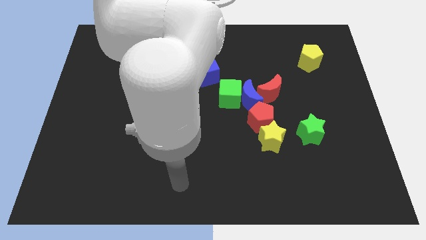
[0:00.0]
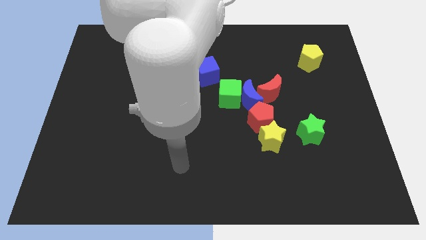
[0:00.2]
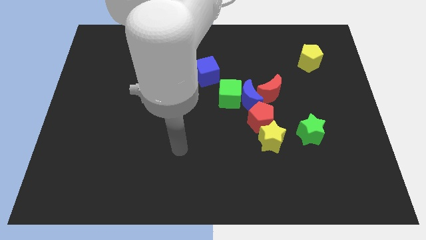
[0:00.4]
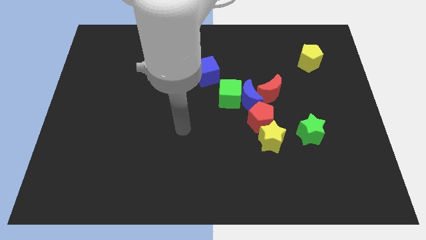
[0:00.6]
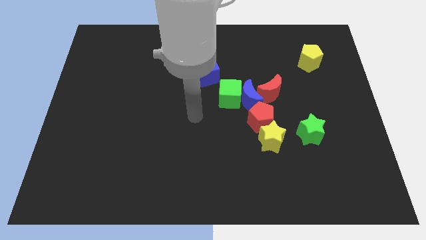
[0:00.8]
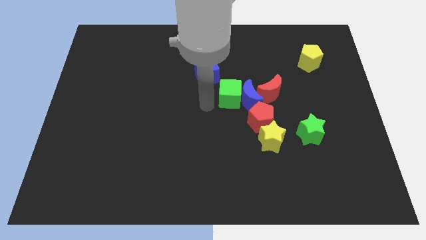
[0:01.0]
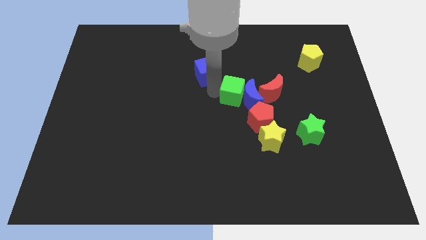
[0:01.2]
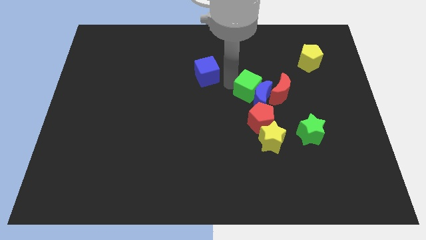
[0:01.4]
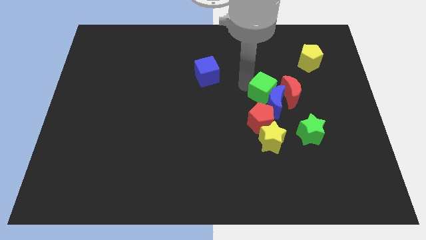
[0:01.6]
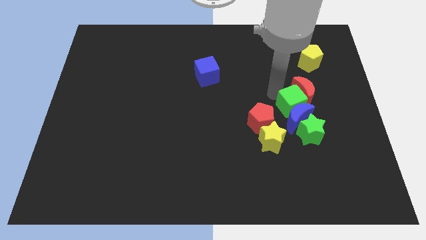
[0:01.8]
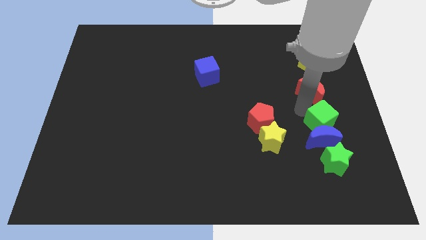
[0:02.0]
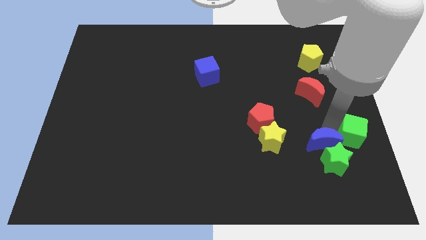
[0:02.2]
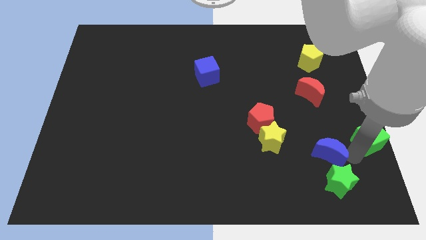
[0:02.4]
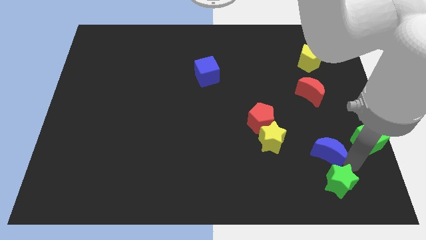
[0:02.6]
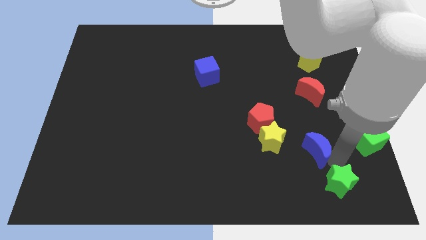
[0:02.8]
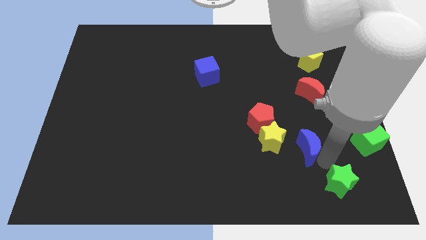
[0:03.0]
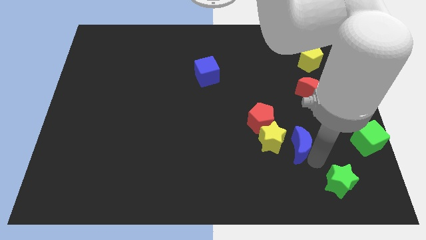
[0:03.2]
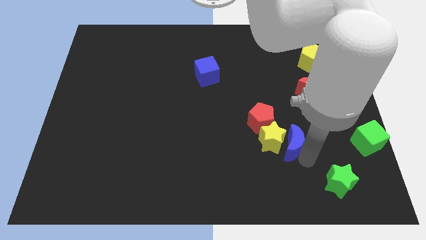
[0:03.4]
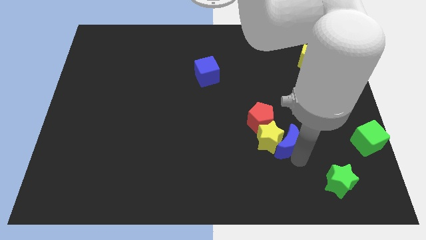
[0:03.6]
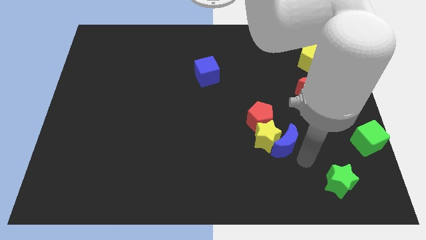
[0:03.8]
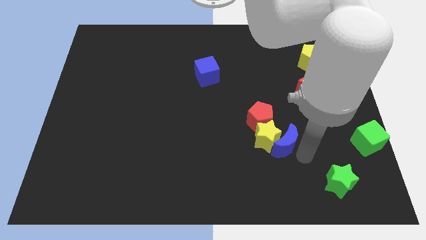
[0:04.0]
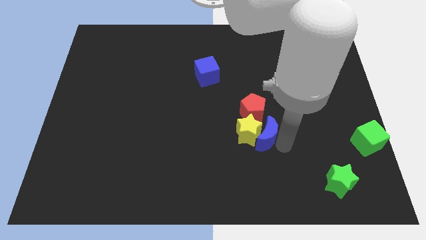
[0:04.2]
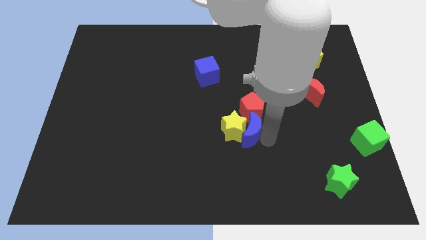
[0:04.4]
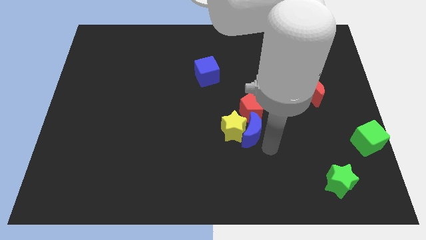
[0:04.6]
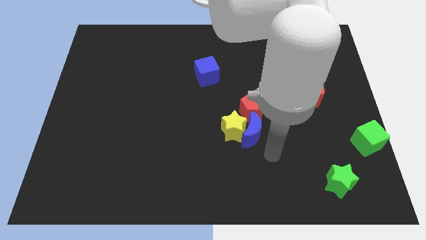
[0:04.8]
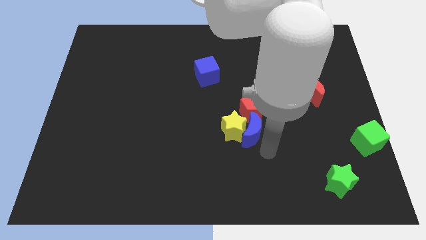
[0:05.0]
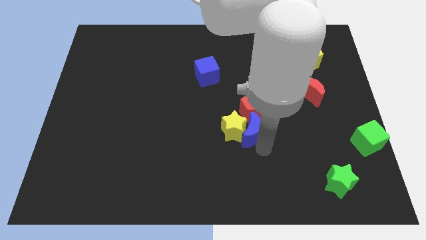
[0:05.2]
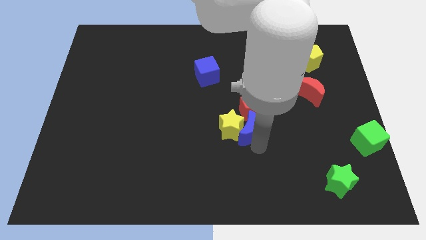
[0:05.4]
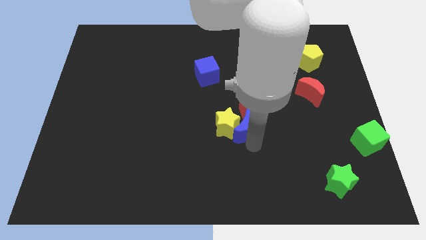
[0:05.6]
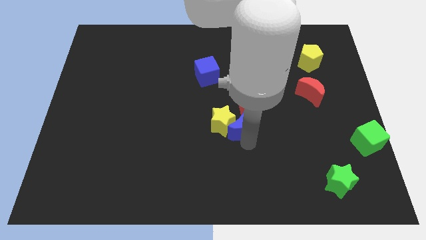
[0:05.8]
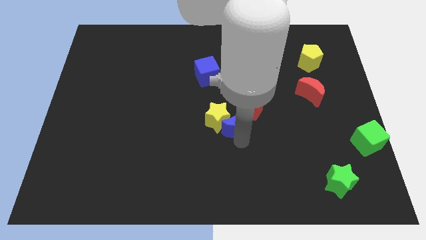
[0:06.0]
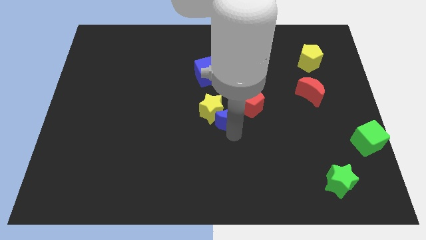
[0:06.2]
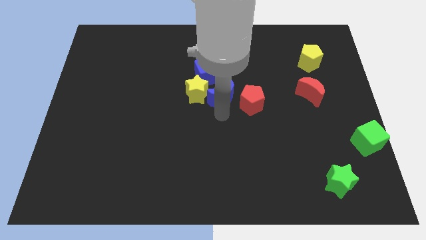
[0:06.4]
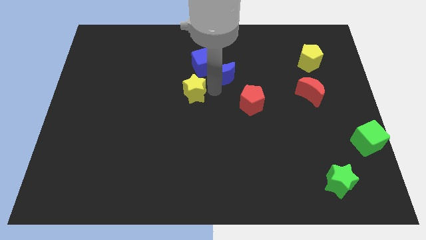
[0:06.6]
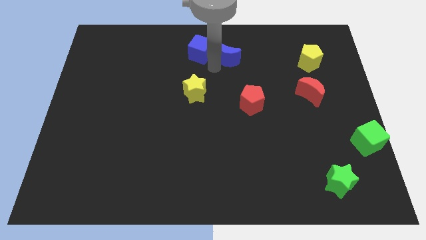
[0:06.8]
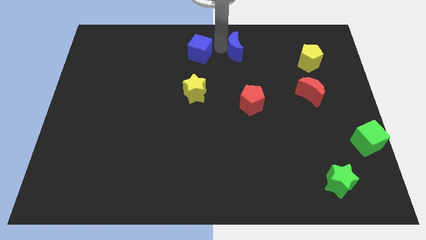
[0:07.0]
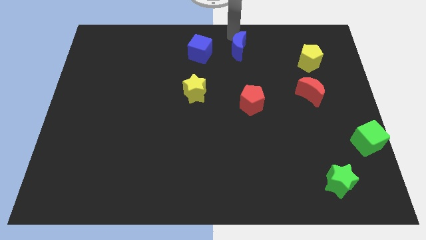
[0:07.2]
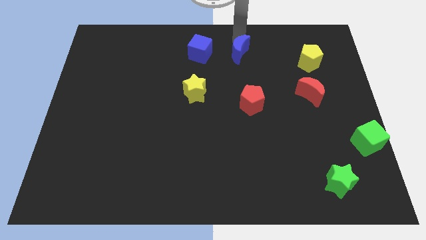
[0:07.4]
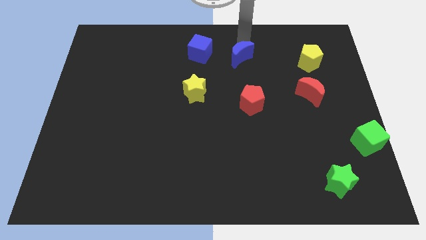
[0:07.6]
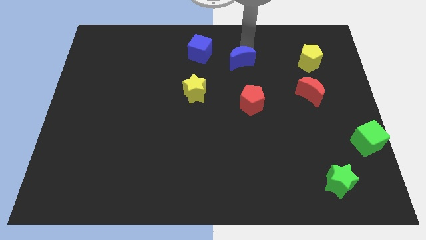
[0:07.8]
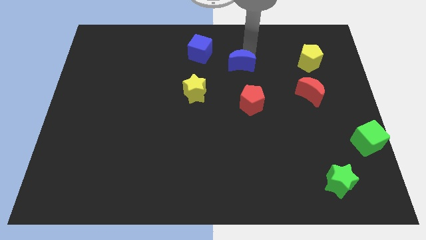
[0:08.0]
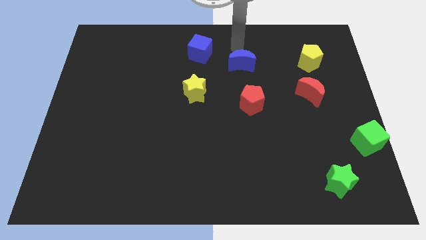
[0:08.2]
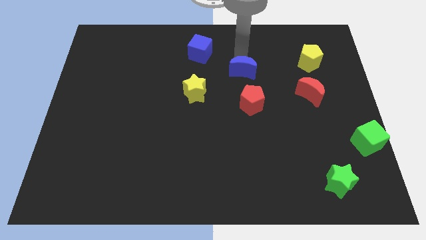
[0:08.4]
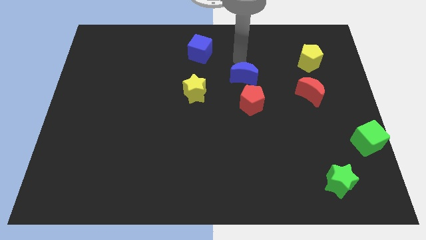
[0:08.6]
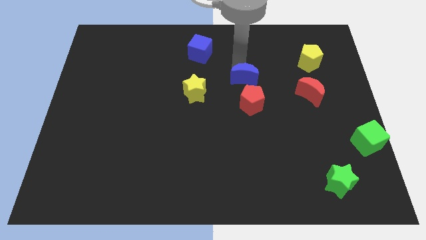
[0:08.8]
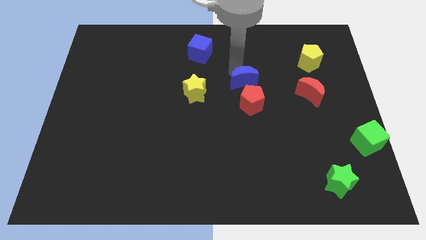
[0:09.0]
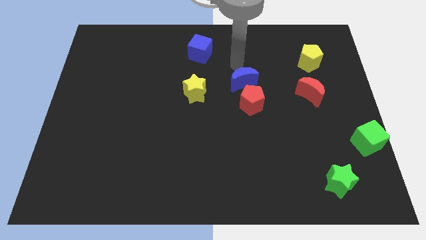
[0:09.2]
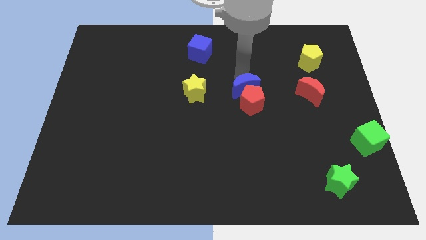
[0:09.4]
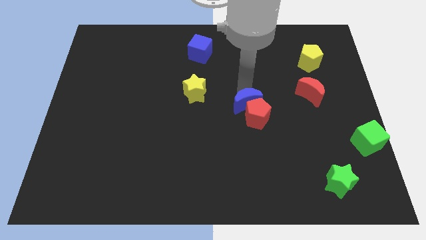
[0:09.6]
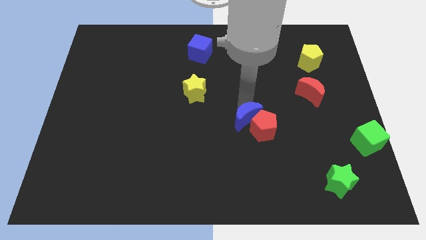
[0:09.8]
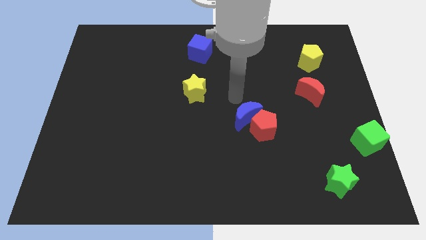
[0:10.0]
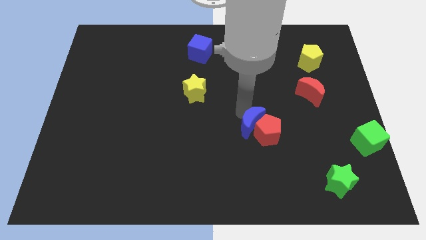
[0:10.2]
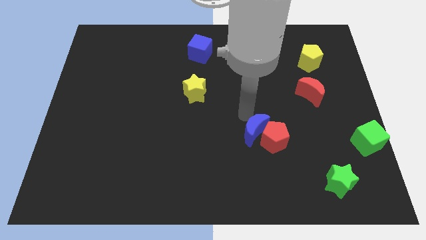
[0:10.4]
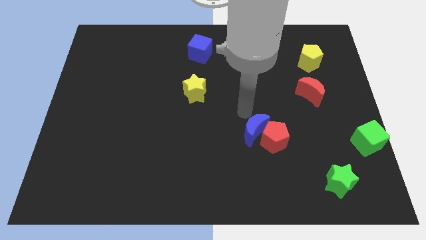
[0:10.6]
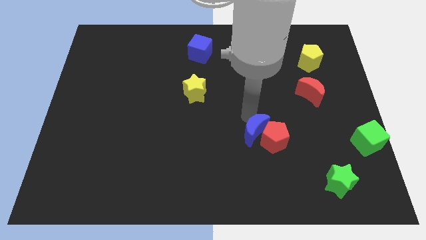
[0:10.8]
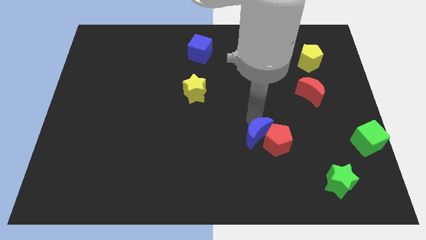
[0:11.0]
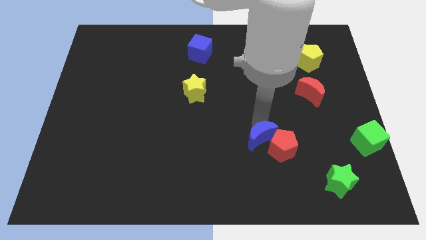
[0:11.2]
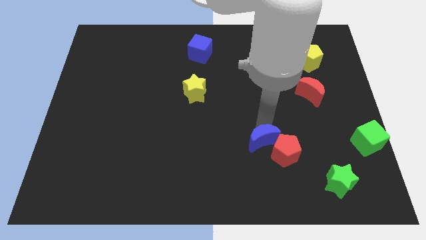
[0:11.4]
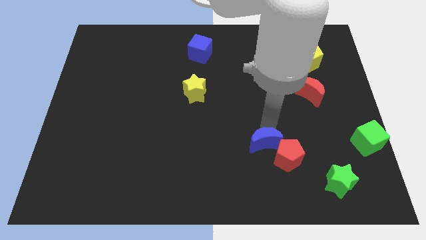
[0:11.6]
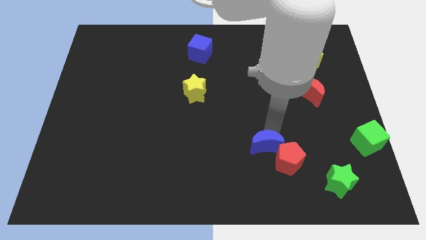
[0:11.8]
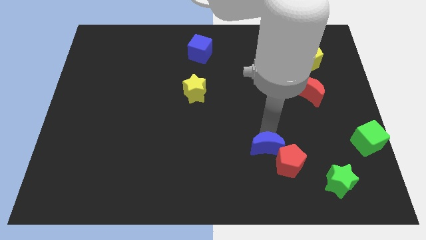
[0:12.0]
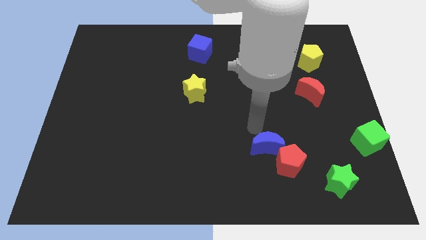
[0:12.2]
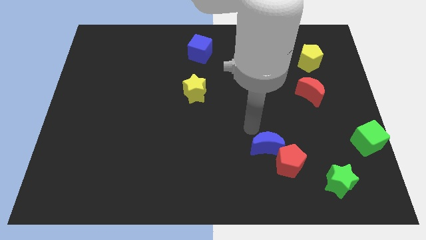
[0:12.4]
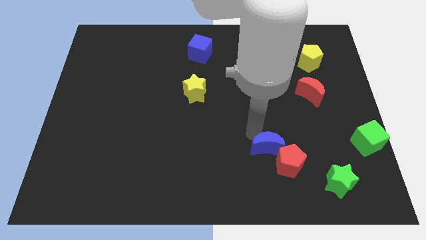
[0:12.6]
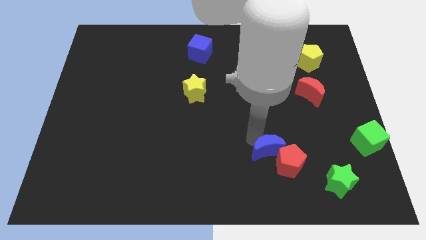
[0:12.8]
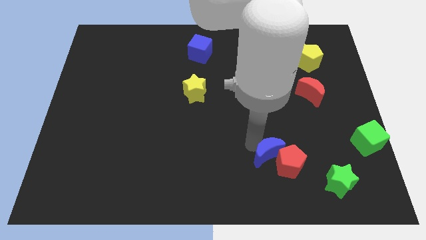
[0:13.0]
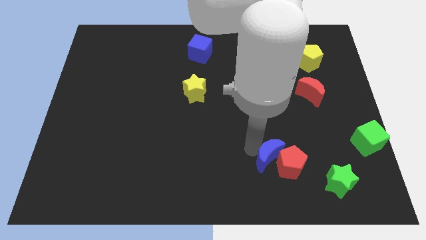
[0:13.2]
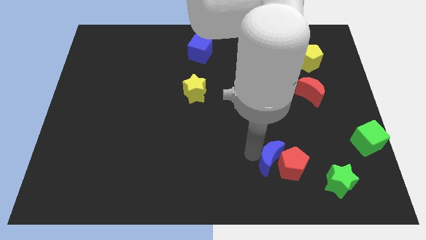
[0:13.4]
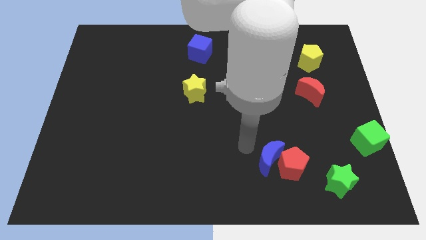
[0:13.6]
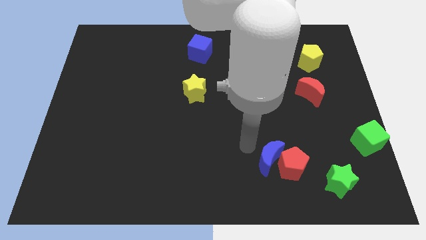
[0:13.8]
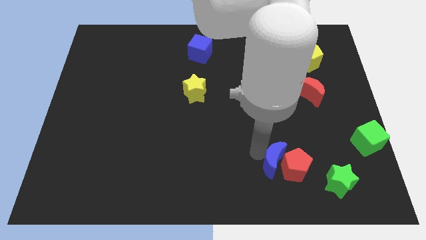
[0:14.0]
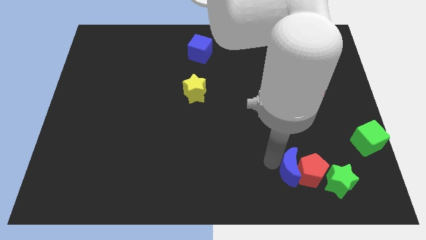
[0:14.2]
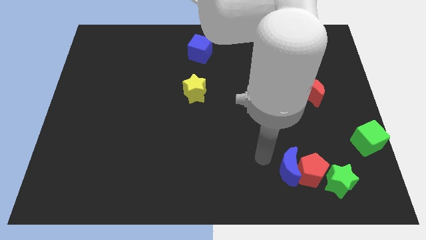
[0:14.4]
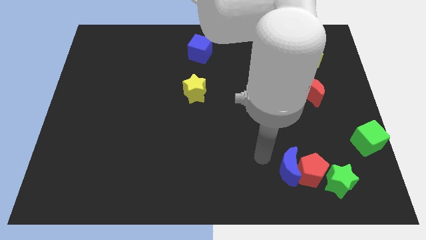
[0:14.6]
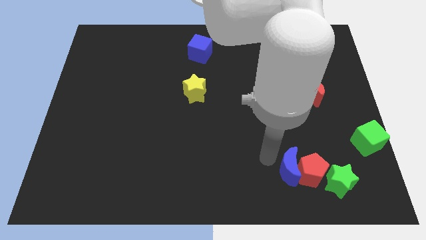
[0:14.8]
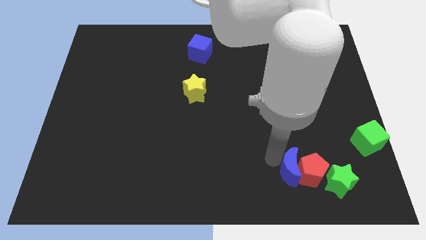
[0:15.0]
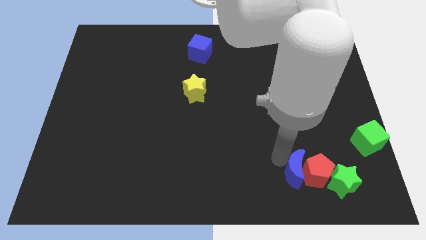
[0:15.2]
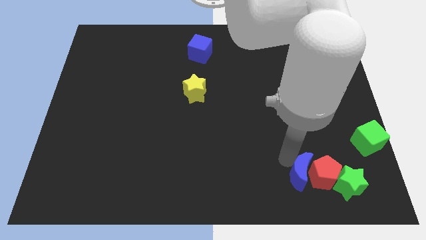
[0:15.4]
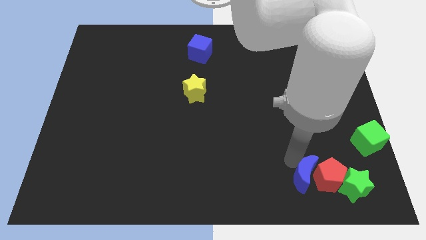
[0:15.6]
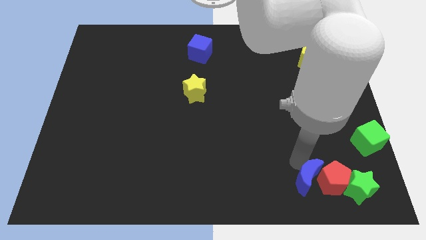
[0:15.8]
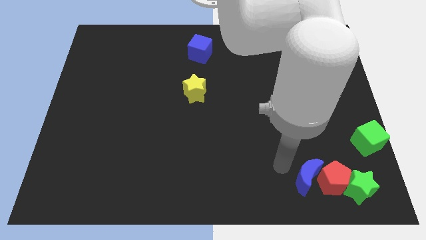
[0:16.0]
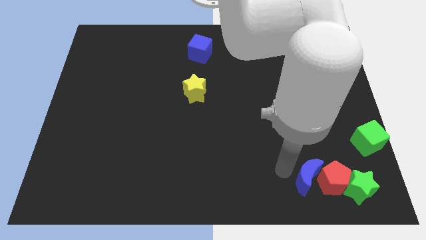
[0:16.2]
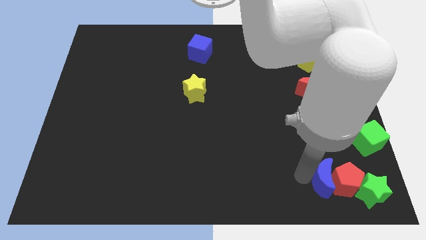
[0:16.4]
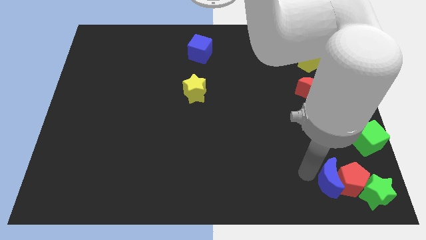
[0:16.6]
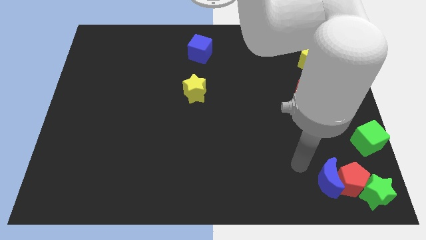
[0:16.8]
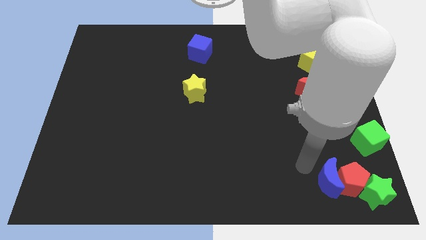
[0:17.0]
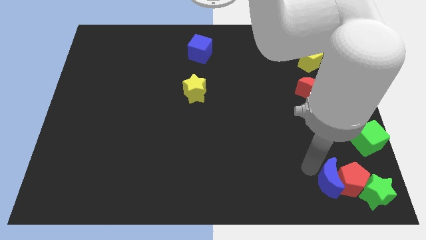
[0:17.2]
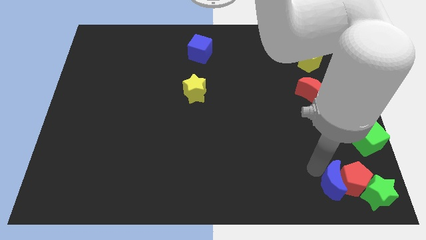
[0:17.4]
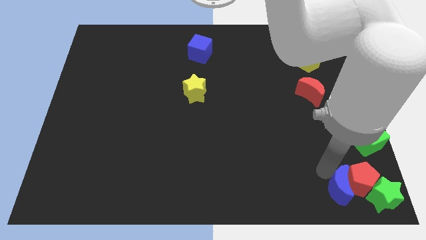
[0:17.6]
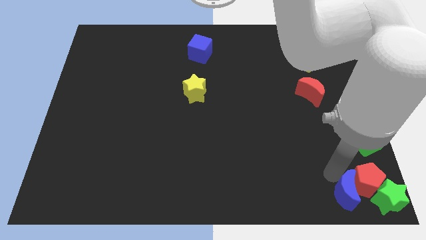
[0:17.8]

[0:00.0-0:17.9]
push the blue moon to the lower right corner
